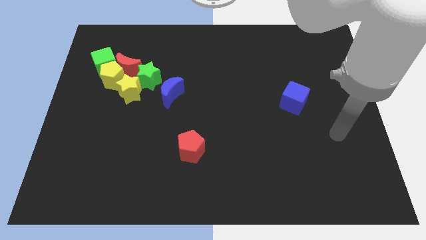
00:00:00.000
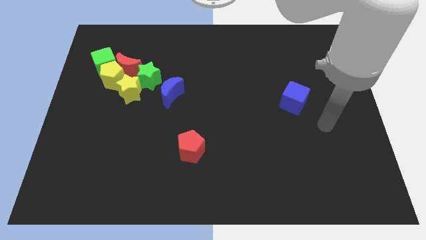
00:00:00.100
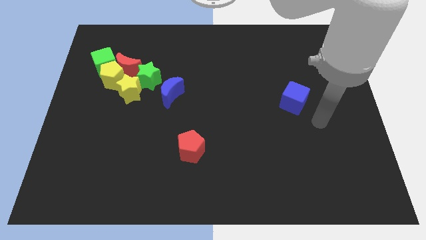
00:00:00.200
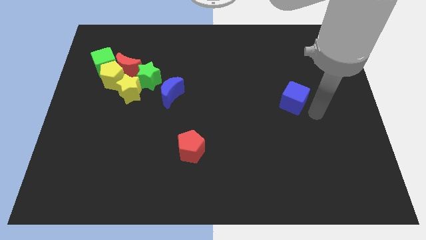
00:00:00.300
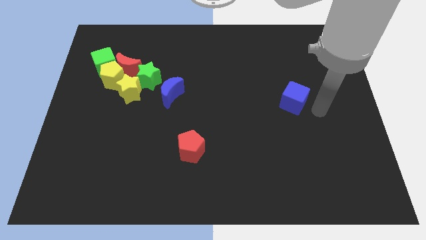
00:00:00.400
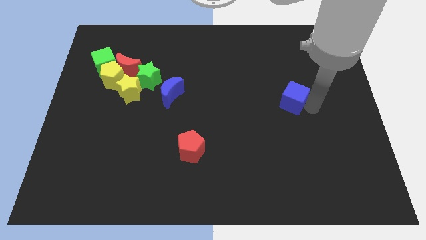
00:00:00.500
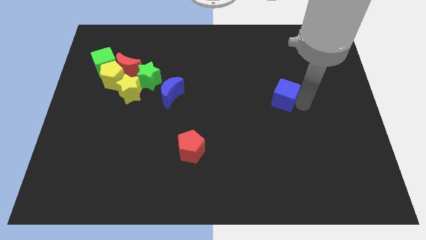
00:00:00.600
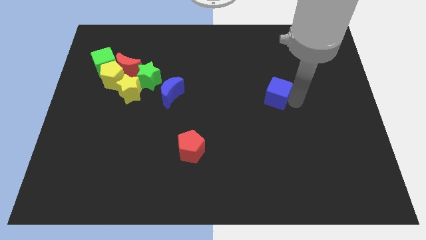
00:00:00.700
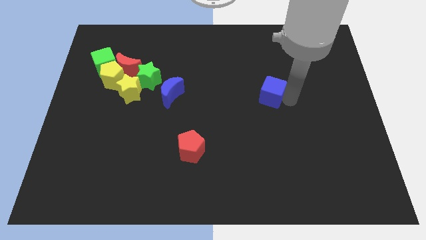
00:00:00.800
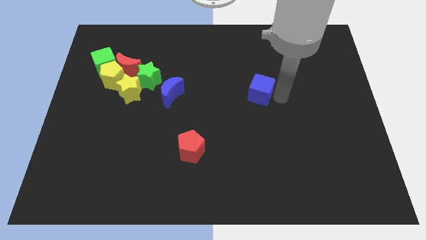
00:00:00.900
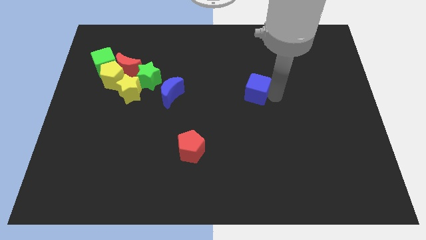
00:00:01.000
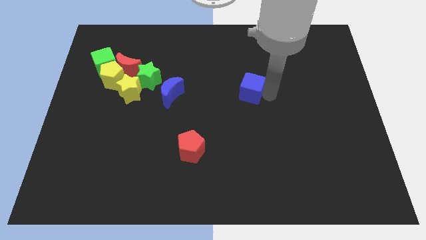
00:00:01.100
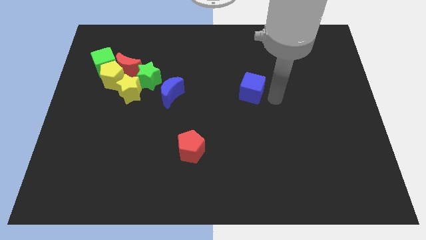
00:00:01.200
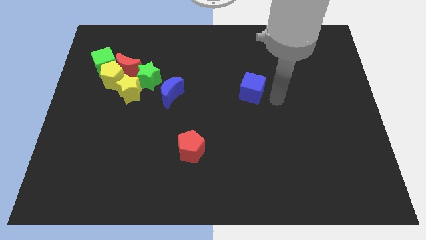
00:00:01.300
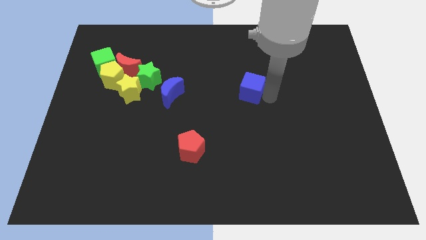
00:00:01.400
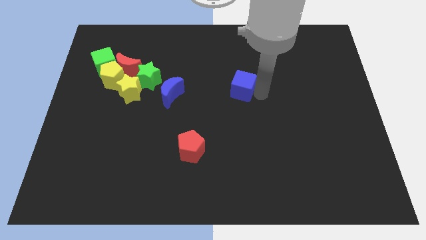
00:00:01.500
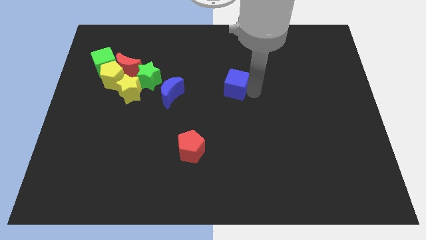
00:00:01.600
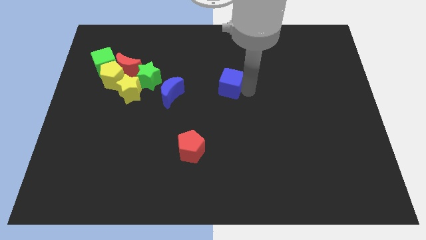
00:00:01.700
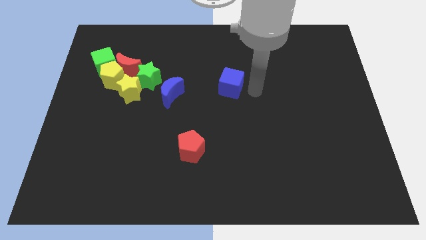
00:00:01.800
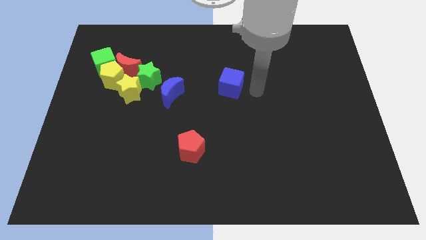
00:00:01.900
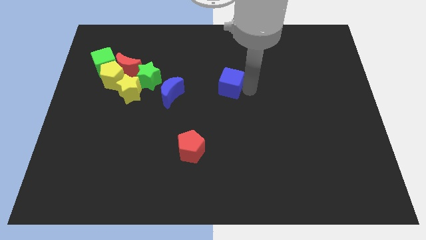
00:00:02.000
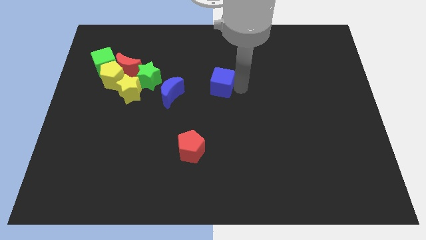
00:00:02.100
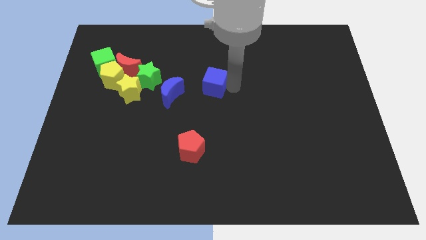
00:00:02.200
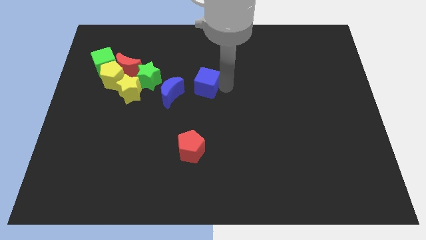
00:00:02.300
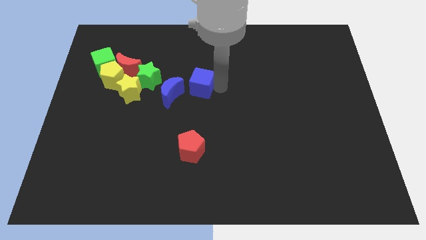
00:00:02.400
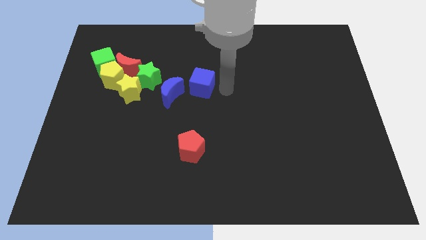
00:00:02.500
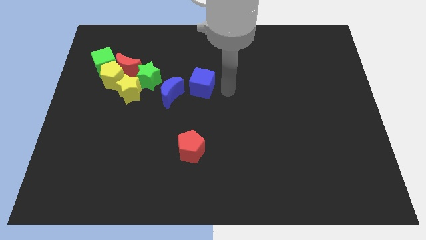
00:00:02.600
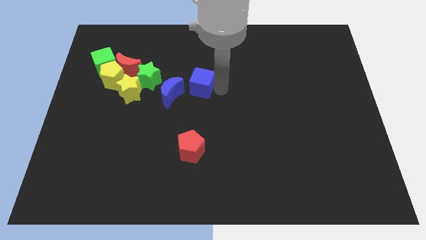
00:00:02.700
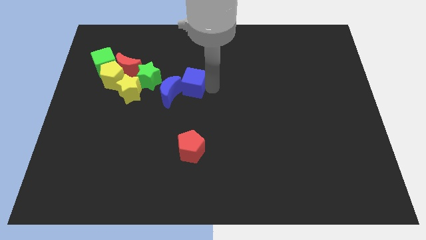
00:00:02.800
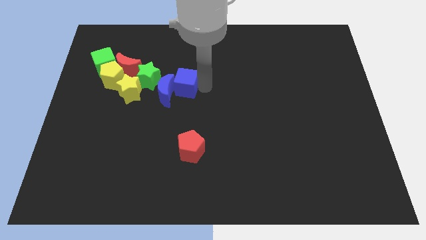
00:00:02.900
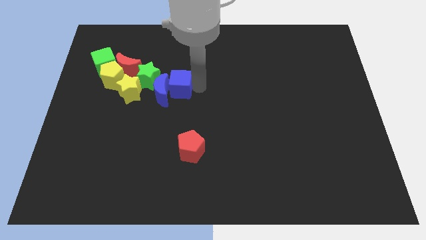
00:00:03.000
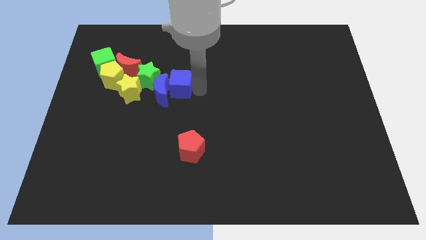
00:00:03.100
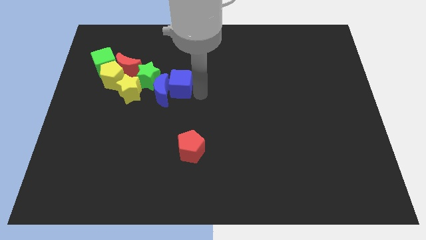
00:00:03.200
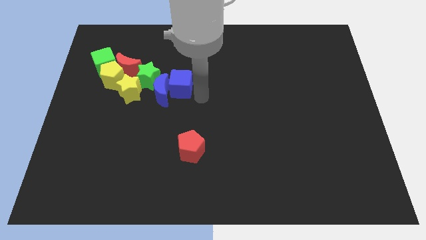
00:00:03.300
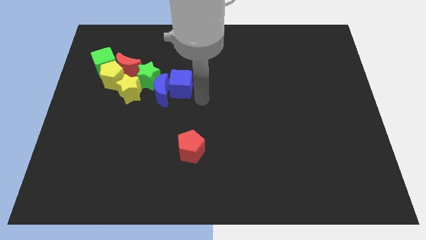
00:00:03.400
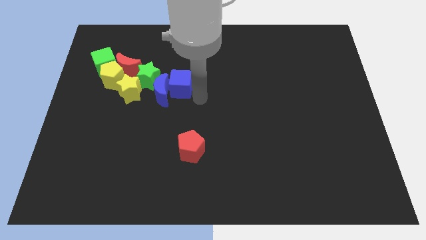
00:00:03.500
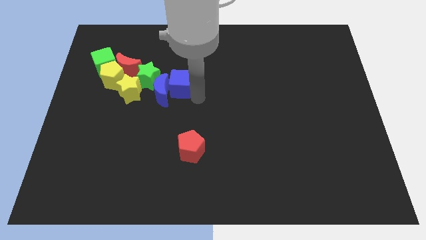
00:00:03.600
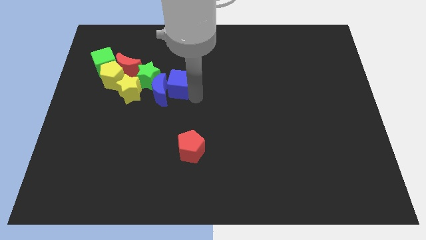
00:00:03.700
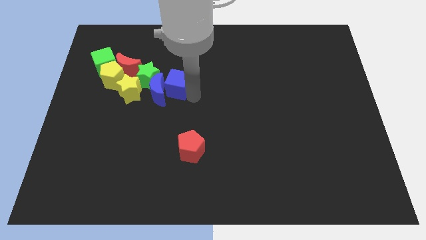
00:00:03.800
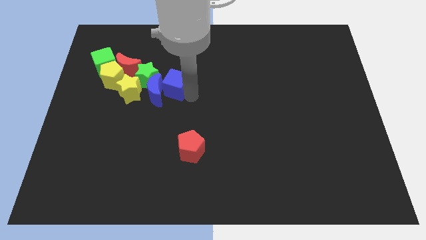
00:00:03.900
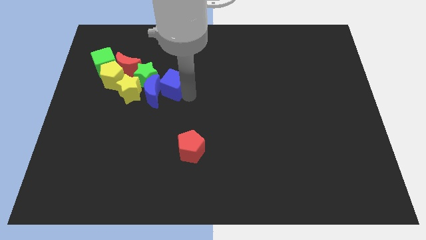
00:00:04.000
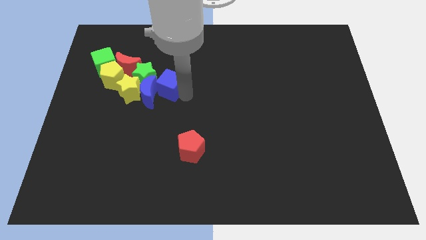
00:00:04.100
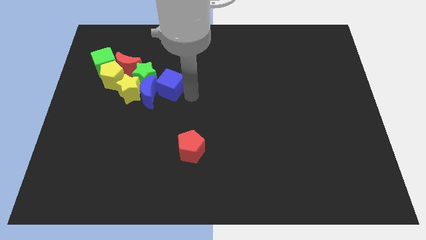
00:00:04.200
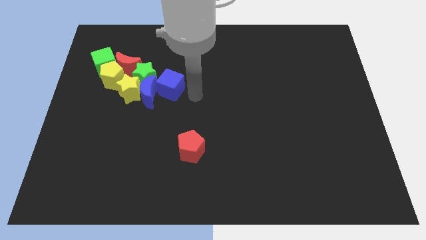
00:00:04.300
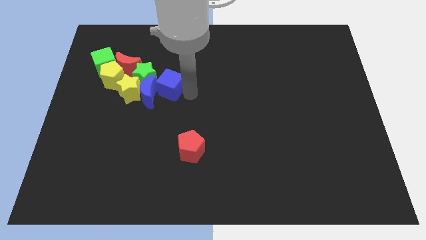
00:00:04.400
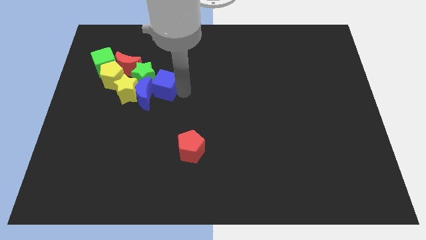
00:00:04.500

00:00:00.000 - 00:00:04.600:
slide the blue cube next to the green star

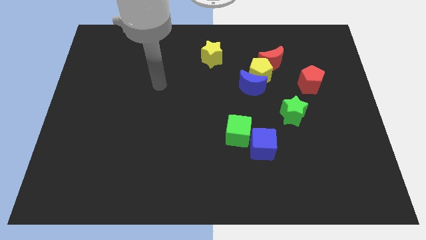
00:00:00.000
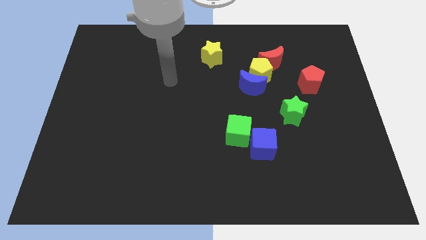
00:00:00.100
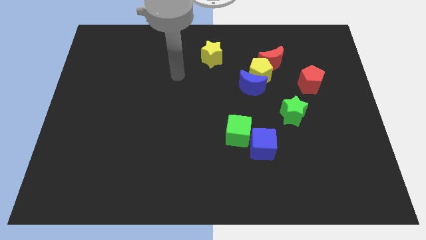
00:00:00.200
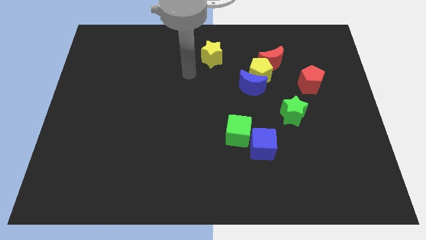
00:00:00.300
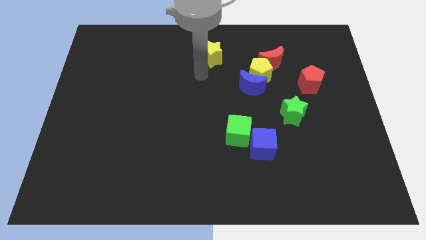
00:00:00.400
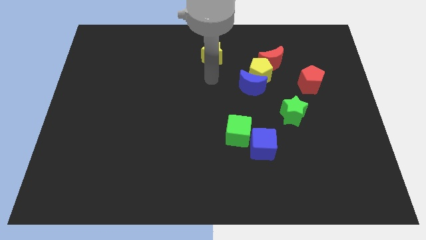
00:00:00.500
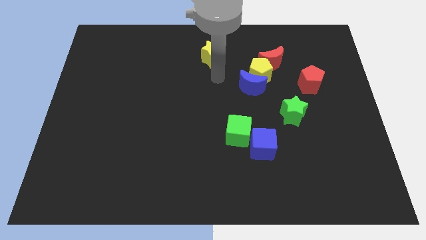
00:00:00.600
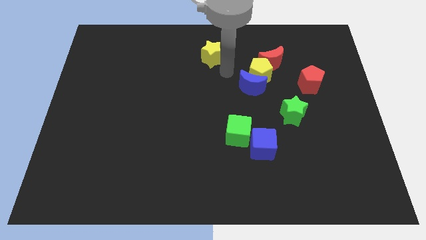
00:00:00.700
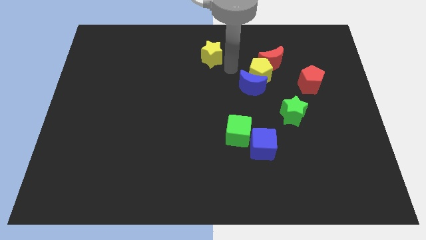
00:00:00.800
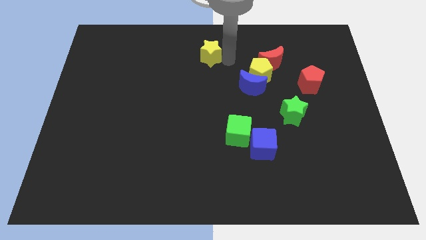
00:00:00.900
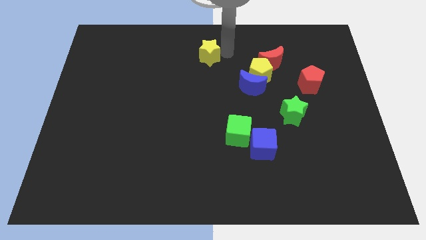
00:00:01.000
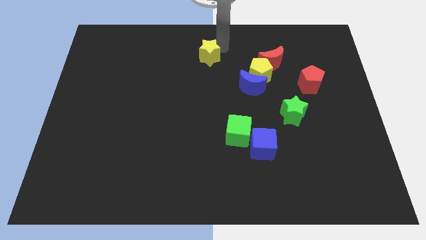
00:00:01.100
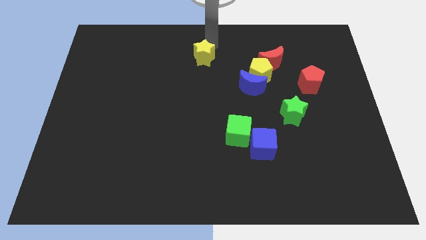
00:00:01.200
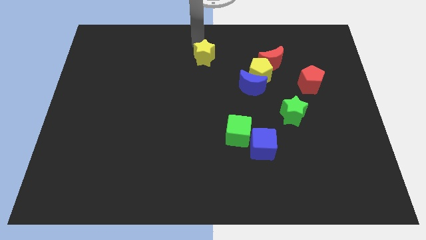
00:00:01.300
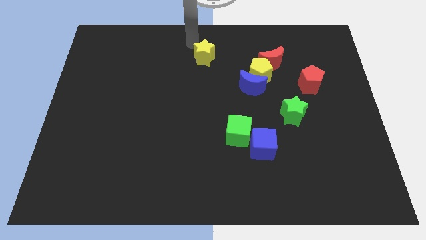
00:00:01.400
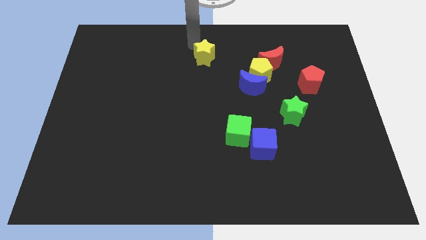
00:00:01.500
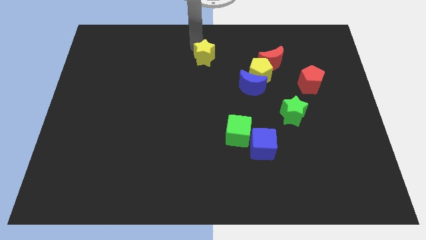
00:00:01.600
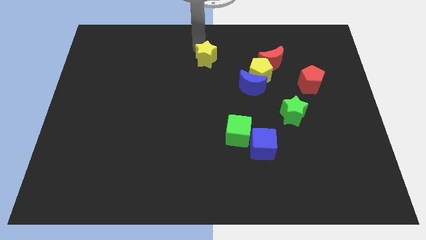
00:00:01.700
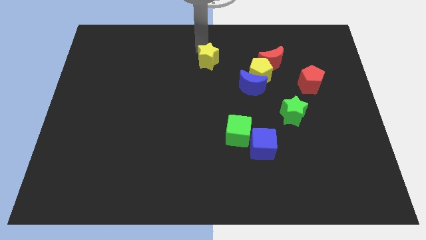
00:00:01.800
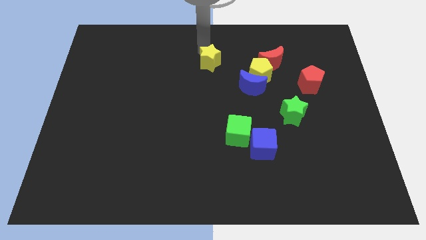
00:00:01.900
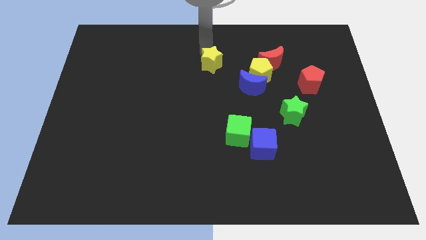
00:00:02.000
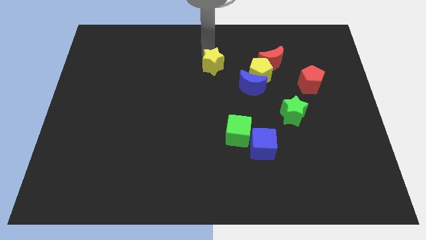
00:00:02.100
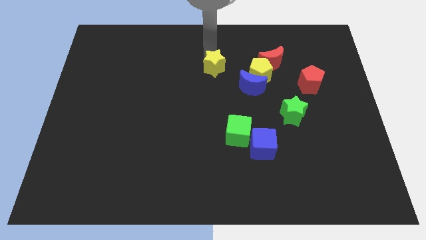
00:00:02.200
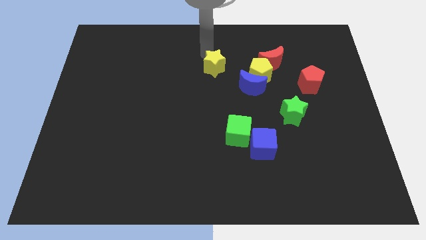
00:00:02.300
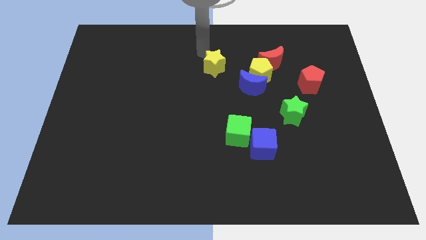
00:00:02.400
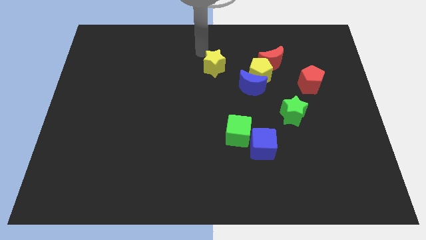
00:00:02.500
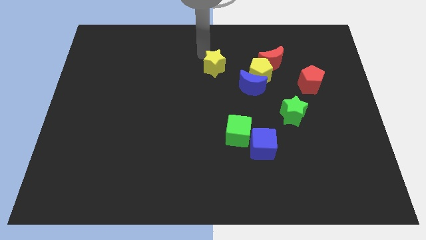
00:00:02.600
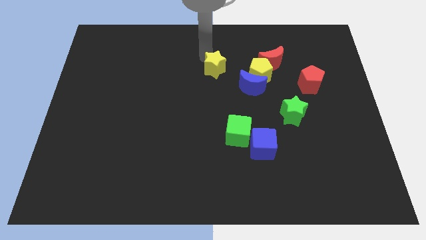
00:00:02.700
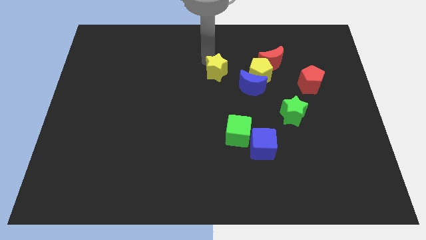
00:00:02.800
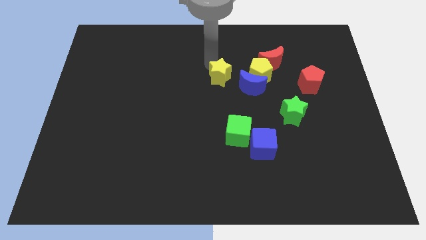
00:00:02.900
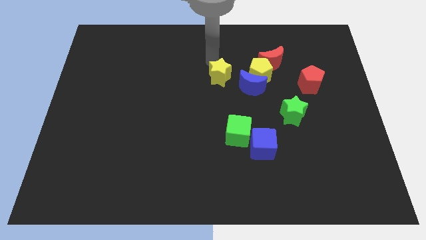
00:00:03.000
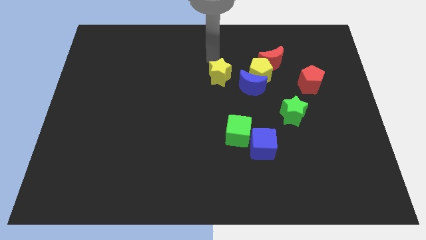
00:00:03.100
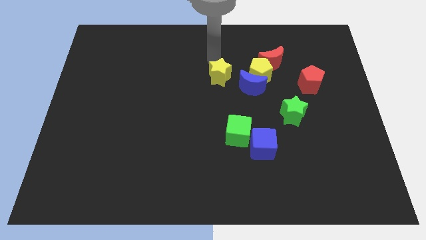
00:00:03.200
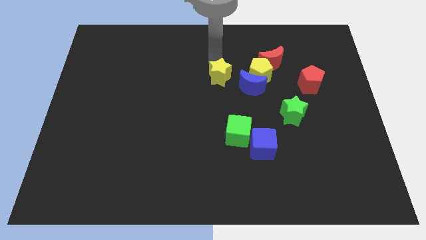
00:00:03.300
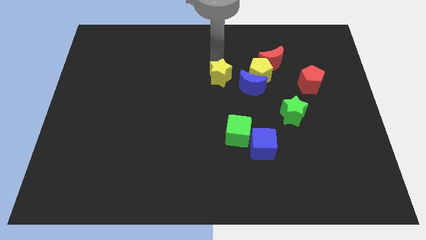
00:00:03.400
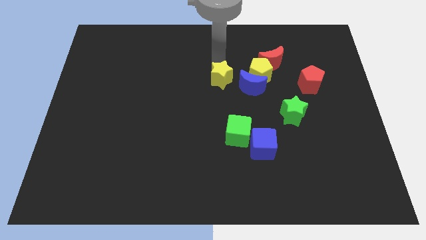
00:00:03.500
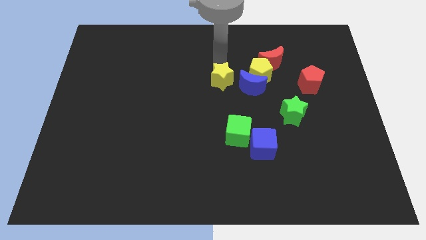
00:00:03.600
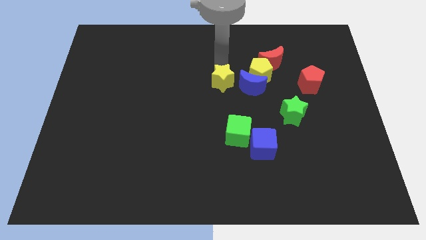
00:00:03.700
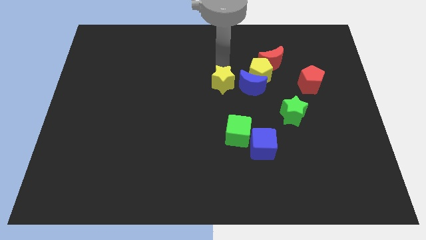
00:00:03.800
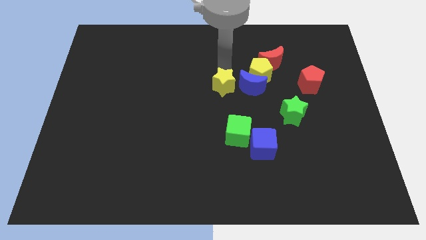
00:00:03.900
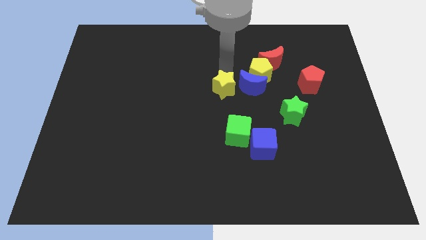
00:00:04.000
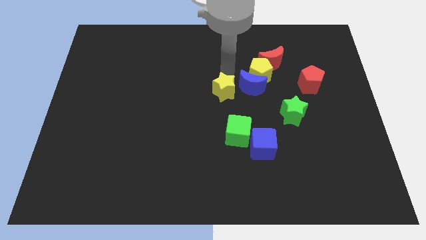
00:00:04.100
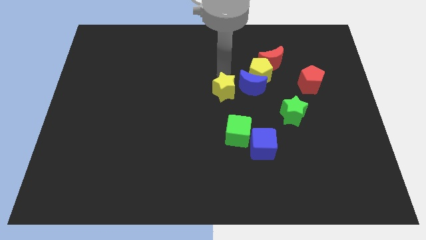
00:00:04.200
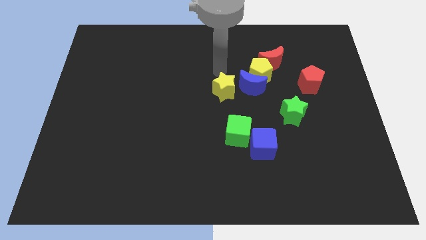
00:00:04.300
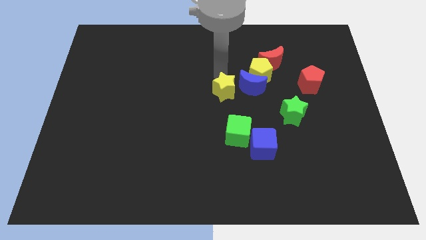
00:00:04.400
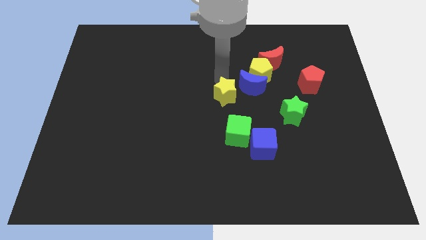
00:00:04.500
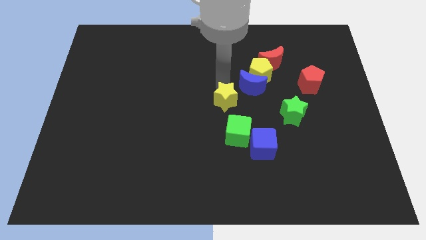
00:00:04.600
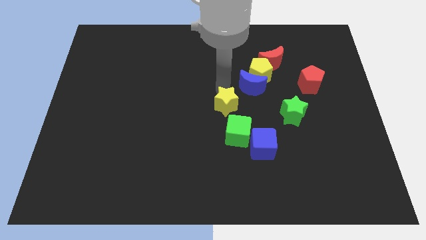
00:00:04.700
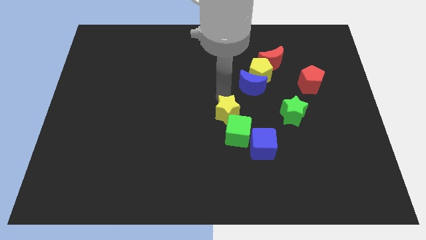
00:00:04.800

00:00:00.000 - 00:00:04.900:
push the yellow star next to the green cube
